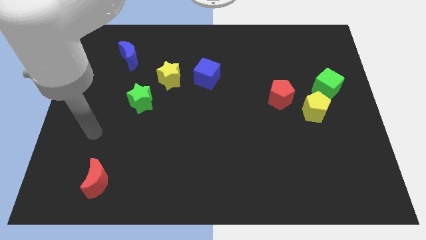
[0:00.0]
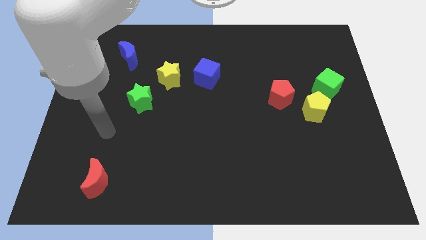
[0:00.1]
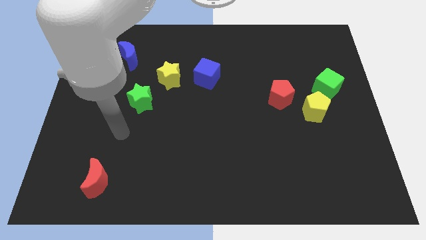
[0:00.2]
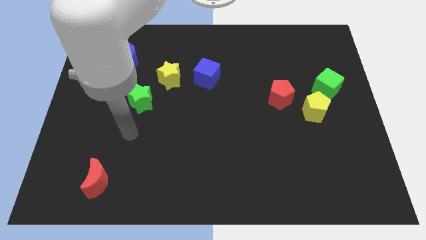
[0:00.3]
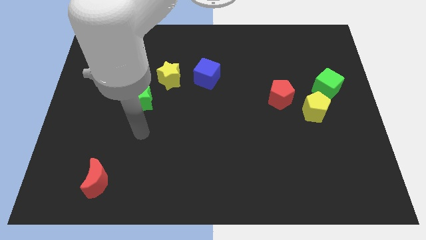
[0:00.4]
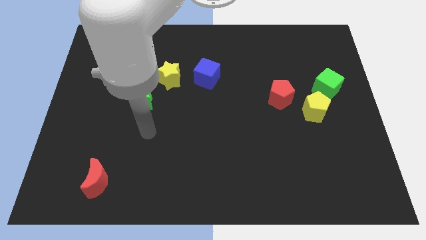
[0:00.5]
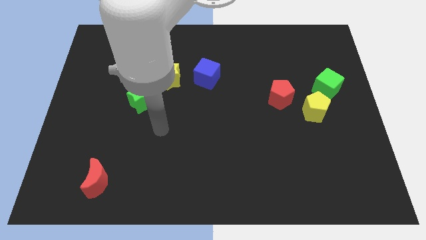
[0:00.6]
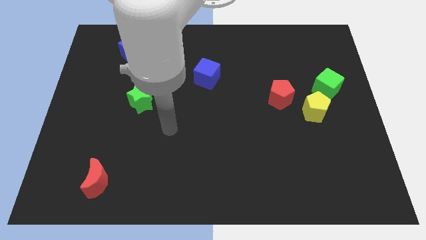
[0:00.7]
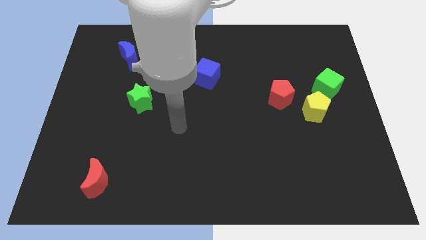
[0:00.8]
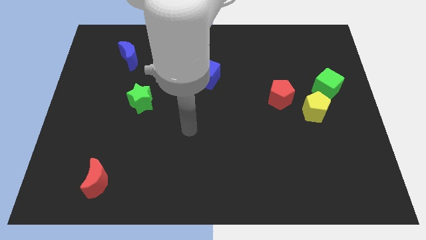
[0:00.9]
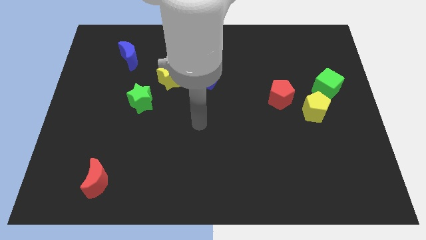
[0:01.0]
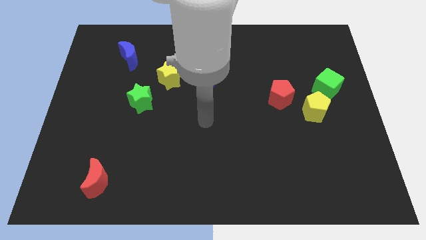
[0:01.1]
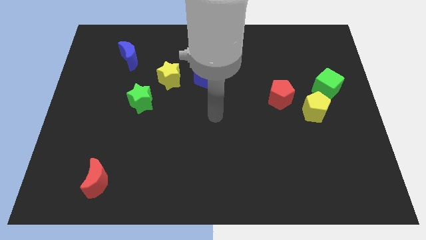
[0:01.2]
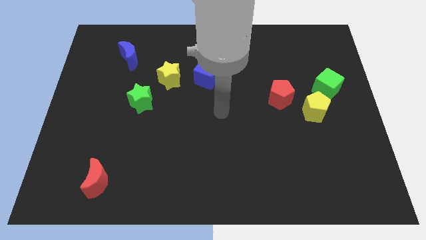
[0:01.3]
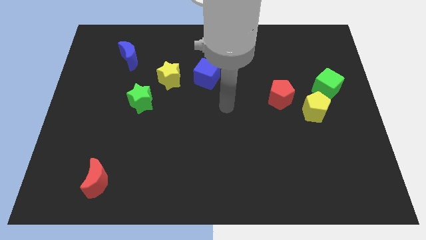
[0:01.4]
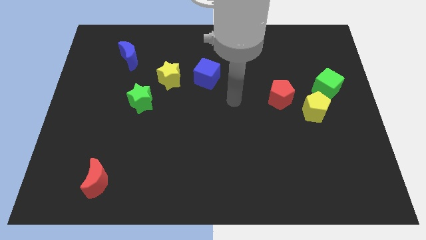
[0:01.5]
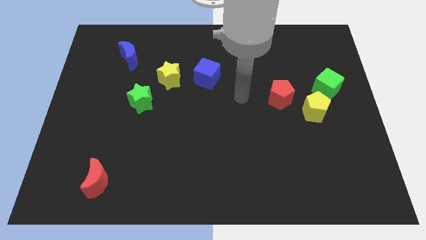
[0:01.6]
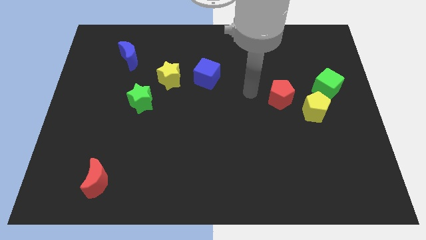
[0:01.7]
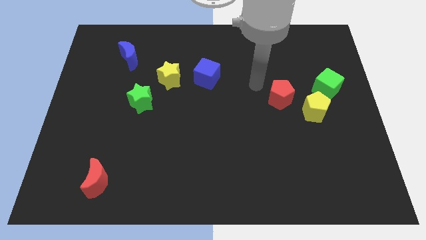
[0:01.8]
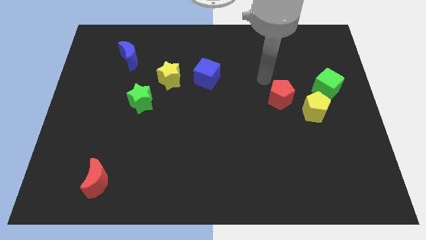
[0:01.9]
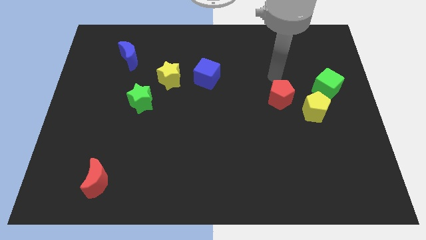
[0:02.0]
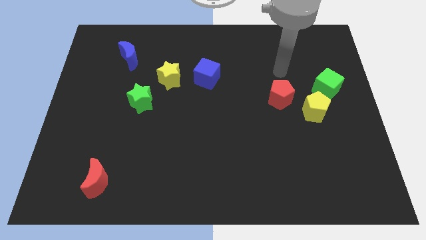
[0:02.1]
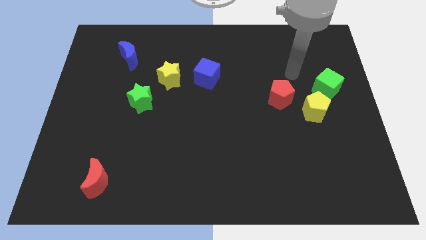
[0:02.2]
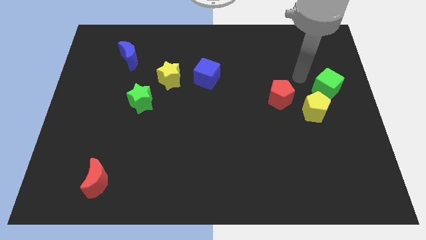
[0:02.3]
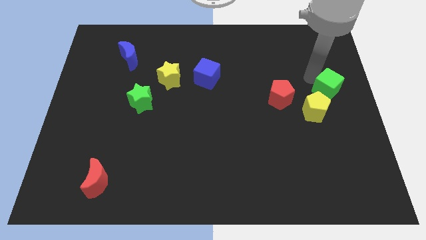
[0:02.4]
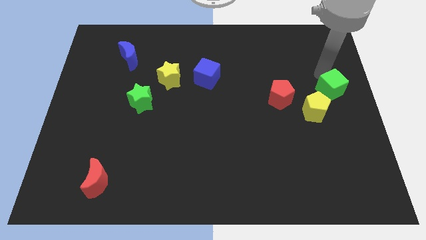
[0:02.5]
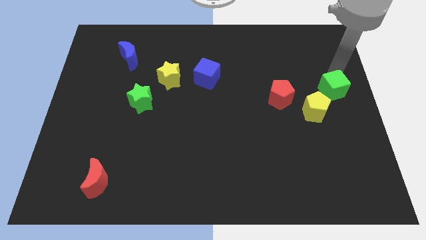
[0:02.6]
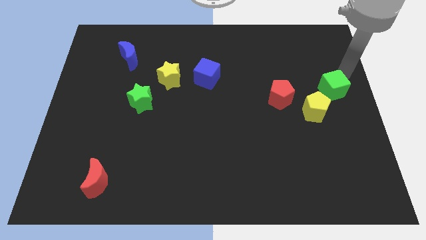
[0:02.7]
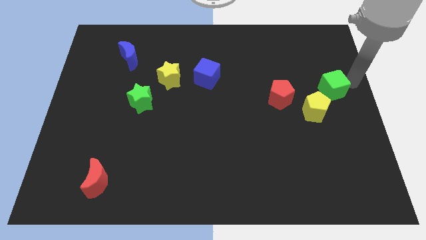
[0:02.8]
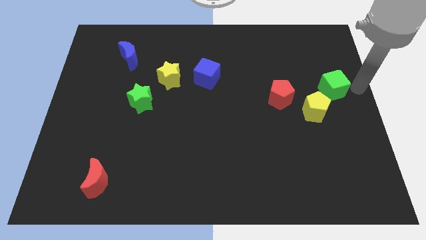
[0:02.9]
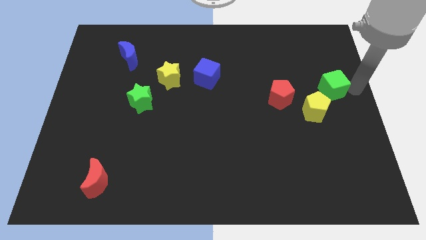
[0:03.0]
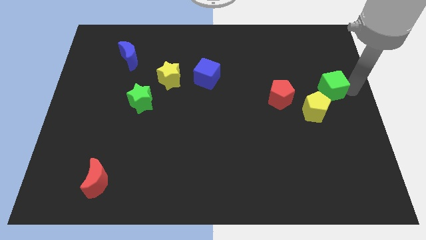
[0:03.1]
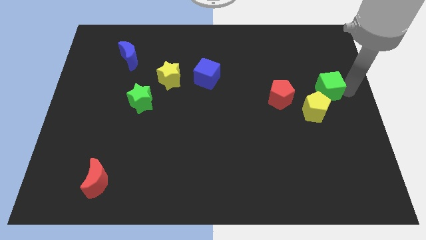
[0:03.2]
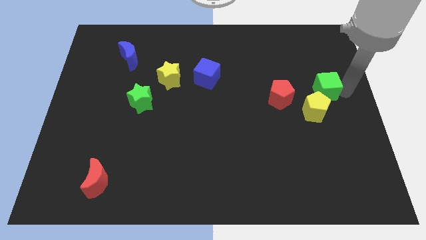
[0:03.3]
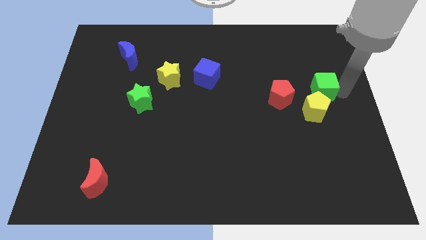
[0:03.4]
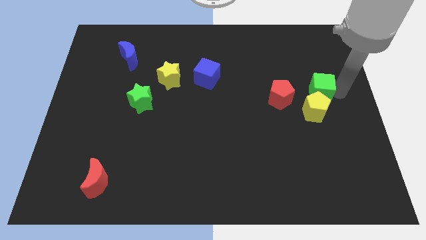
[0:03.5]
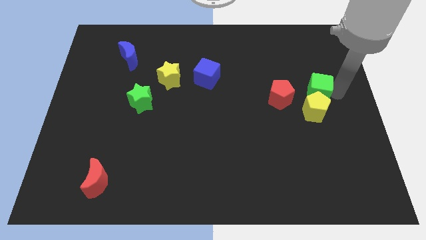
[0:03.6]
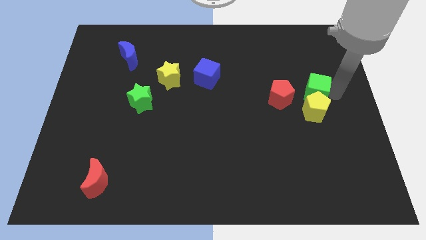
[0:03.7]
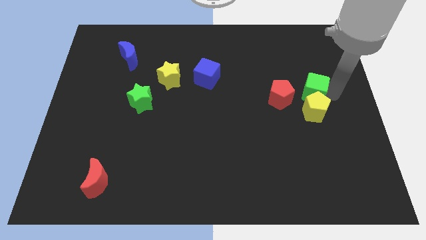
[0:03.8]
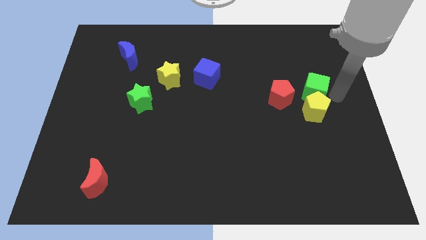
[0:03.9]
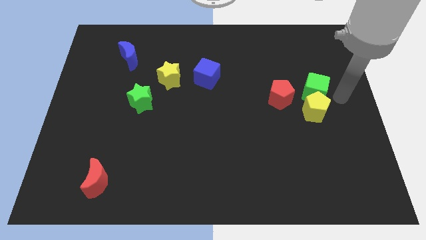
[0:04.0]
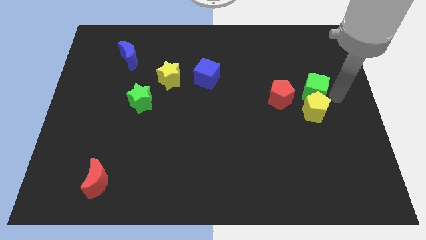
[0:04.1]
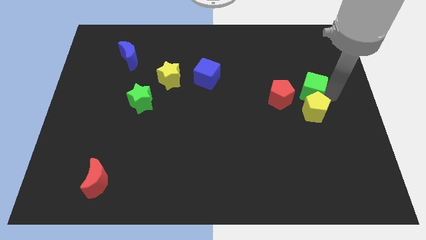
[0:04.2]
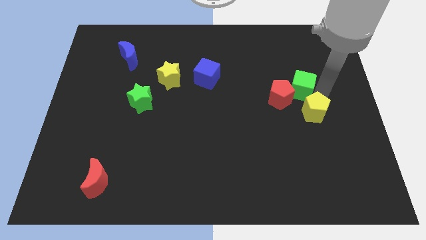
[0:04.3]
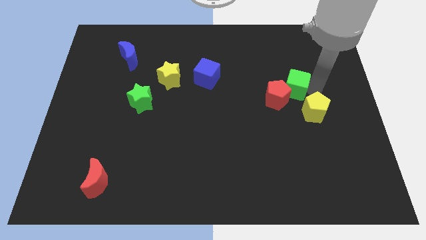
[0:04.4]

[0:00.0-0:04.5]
push the green cube somewhat left

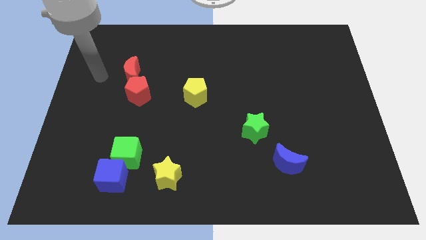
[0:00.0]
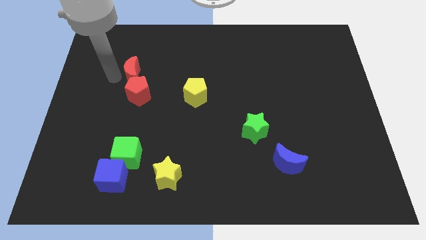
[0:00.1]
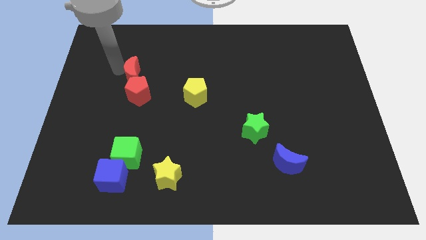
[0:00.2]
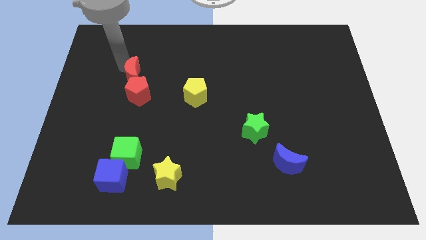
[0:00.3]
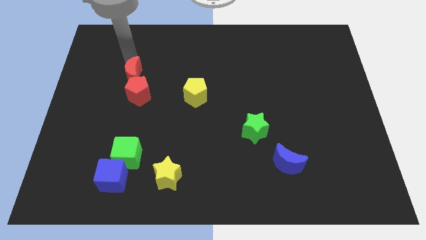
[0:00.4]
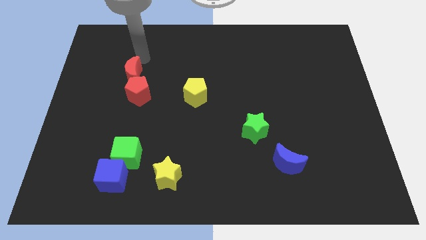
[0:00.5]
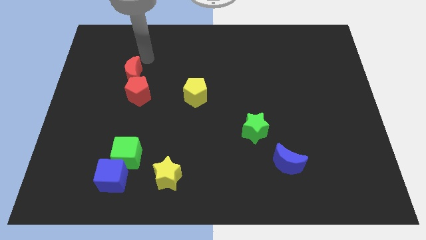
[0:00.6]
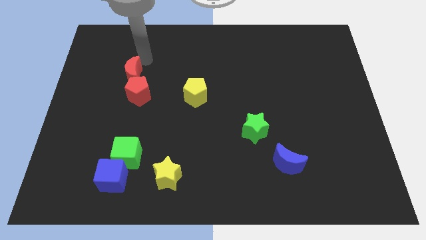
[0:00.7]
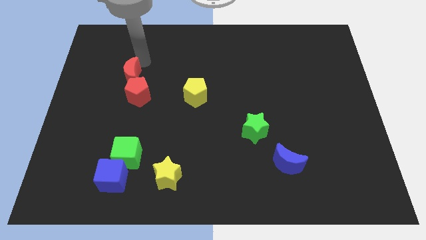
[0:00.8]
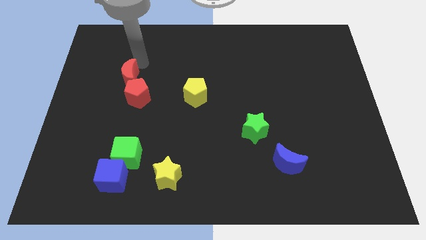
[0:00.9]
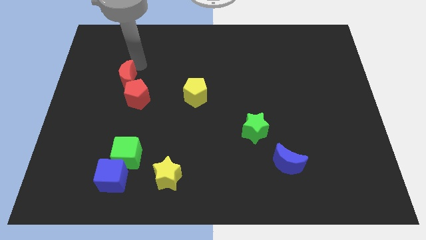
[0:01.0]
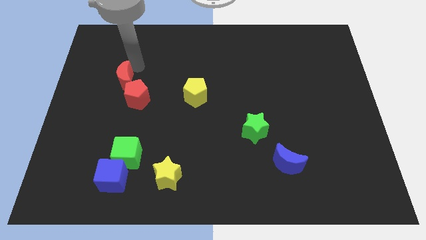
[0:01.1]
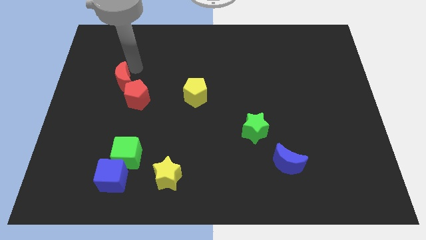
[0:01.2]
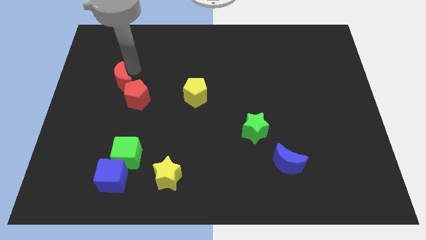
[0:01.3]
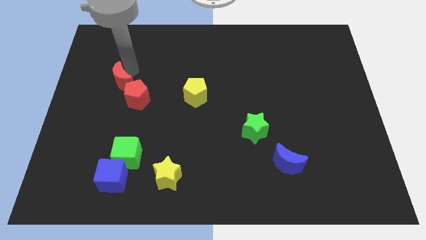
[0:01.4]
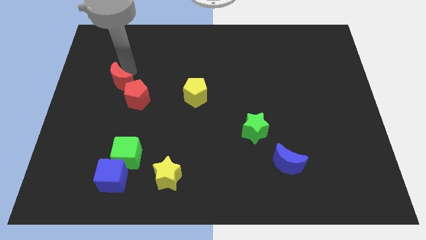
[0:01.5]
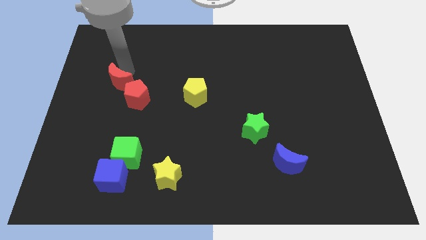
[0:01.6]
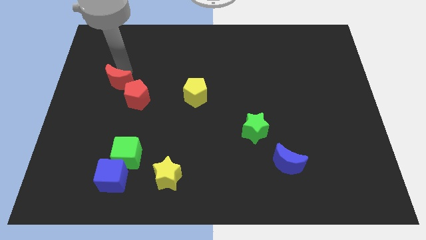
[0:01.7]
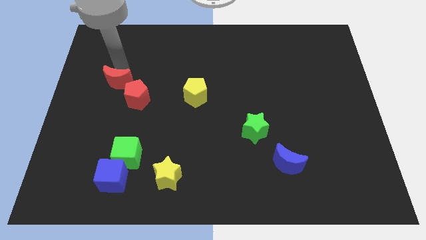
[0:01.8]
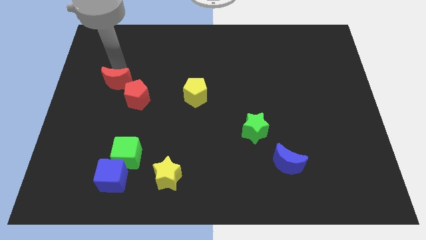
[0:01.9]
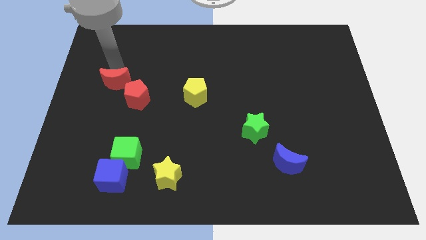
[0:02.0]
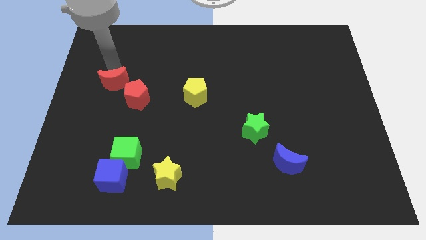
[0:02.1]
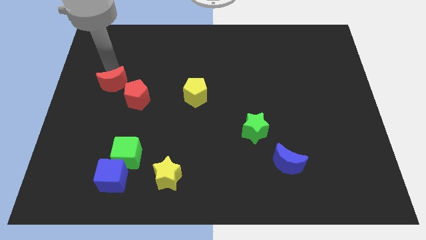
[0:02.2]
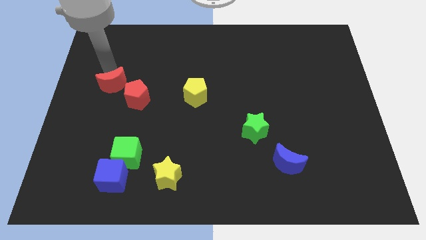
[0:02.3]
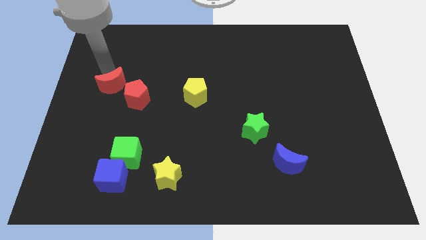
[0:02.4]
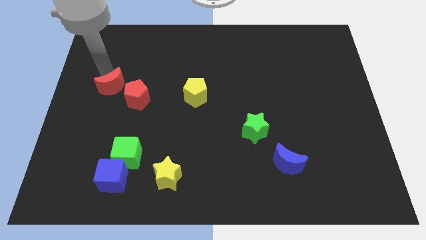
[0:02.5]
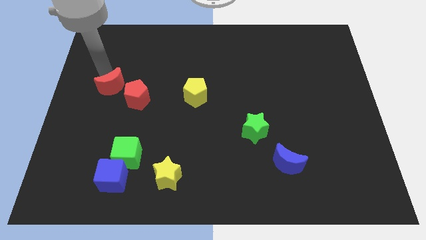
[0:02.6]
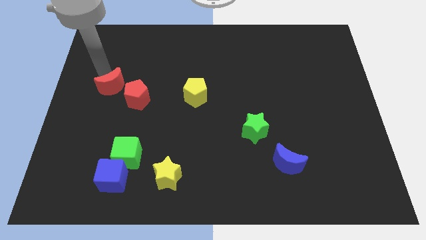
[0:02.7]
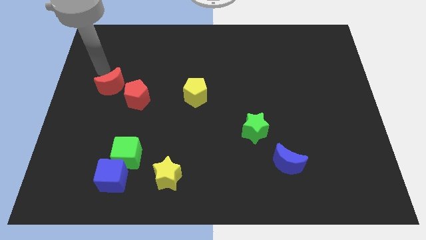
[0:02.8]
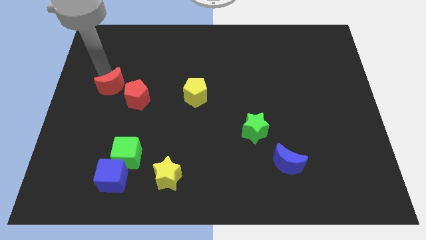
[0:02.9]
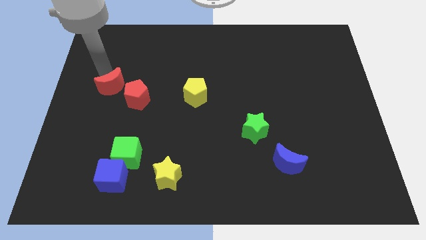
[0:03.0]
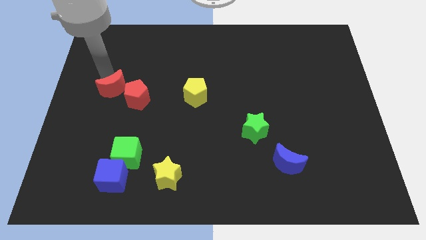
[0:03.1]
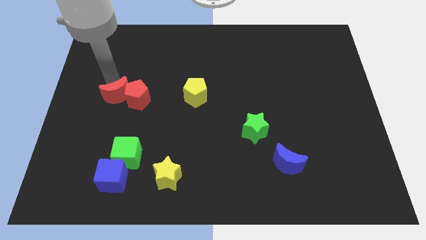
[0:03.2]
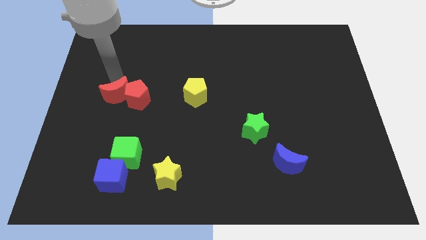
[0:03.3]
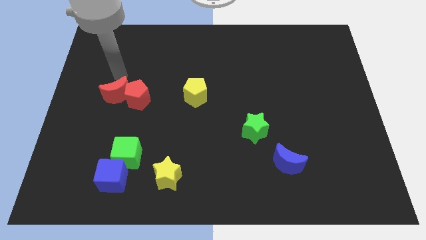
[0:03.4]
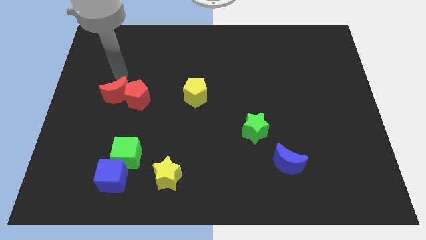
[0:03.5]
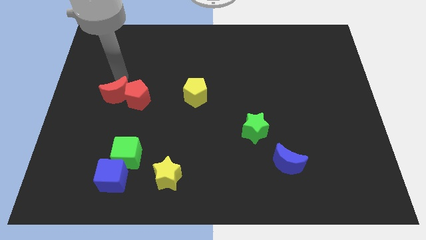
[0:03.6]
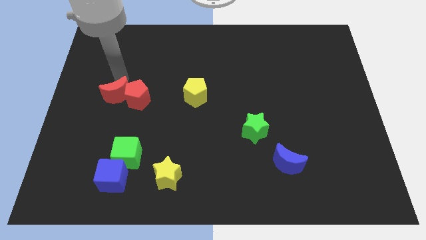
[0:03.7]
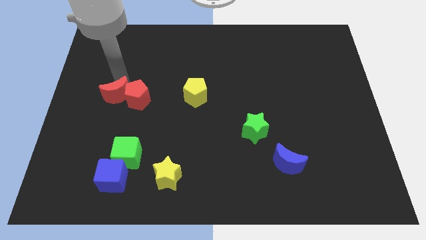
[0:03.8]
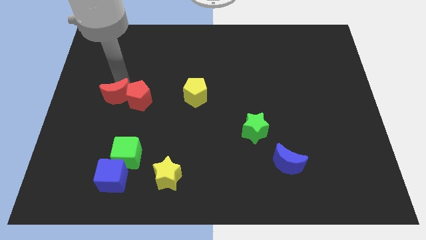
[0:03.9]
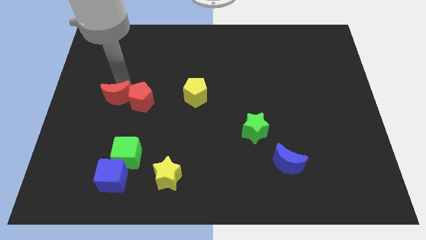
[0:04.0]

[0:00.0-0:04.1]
push the red moon a little bit downwards
